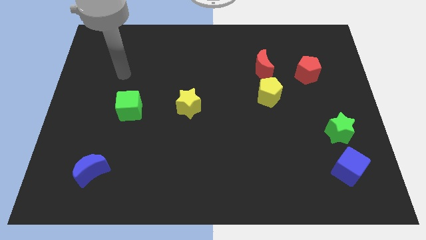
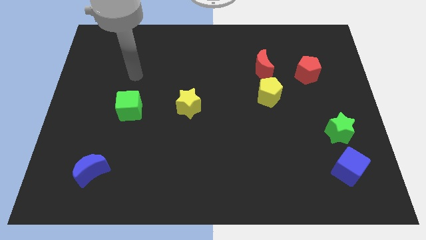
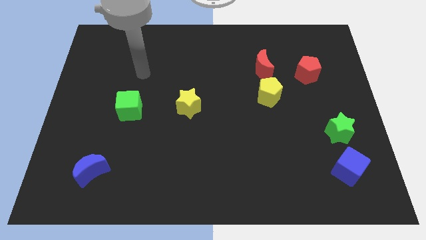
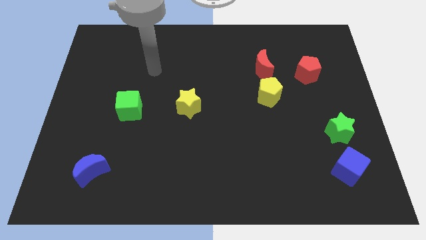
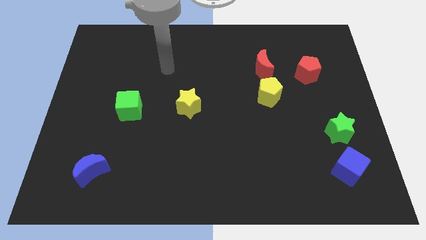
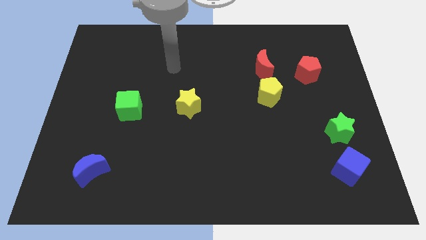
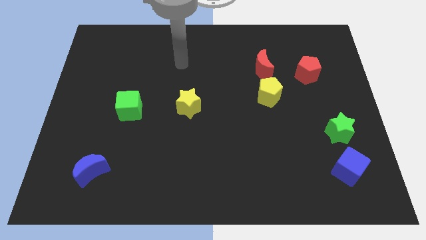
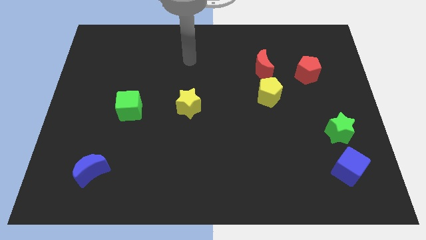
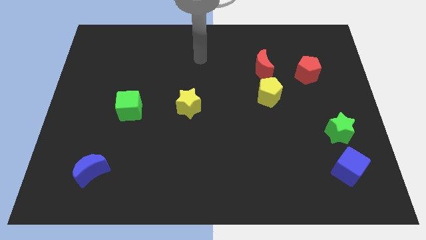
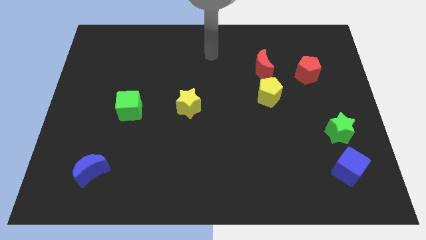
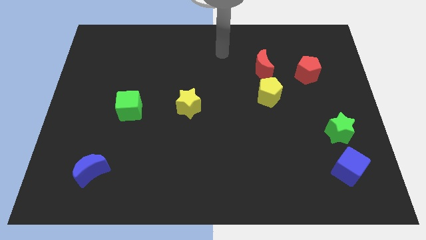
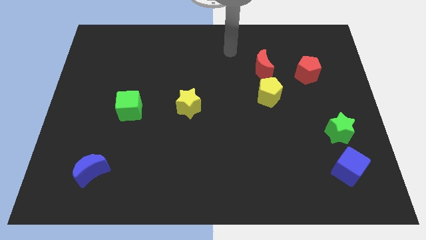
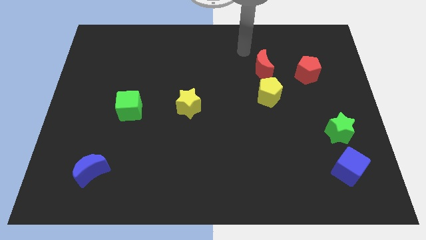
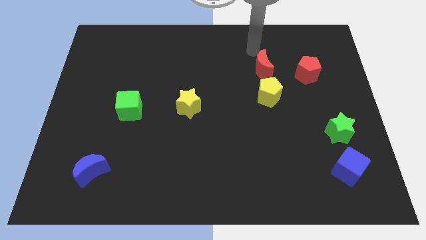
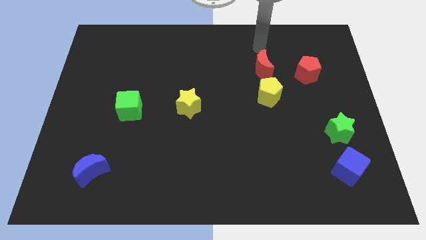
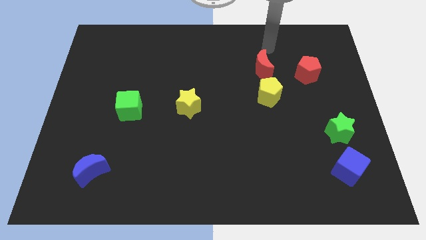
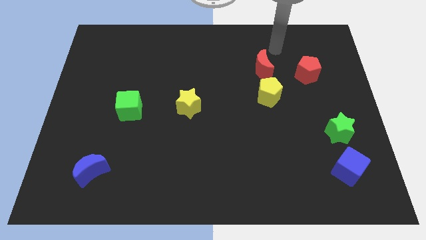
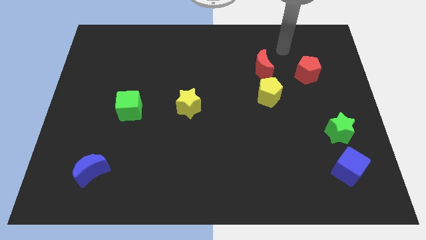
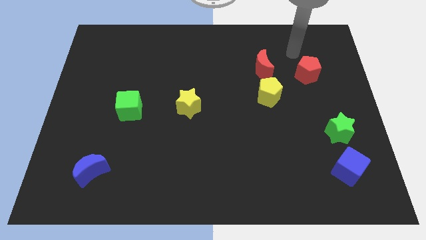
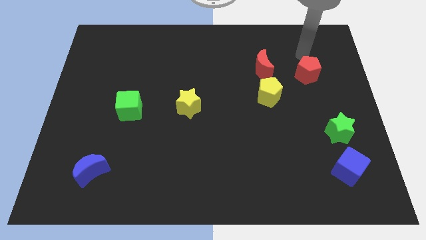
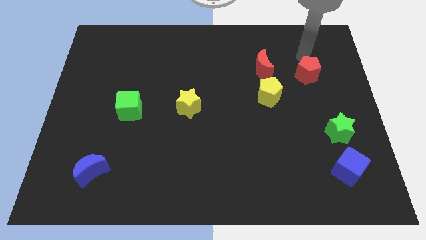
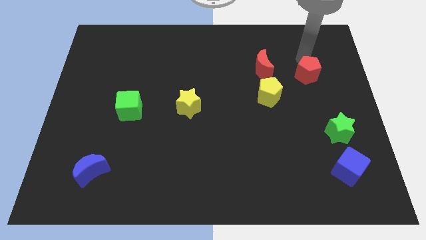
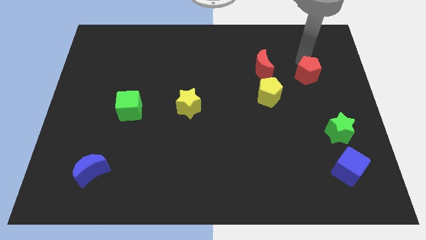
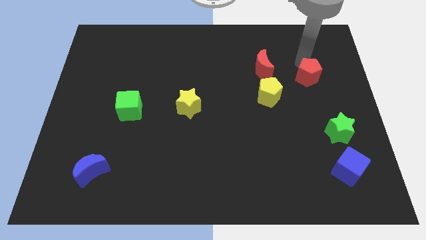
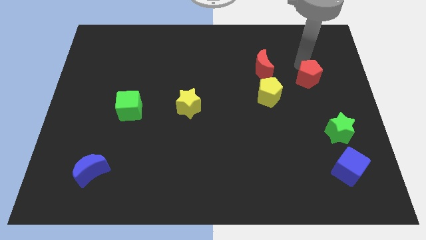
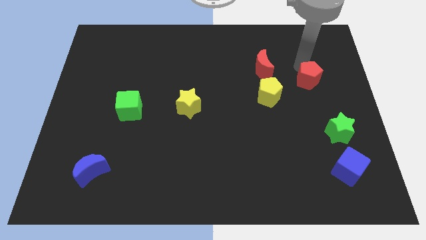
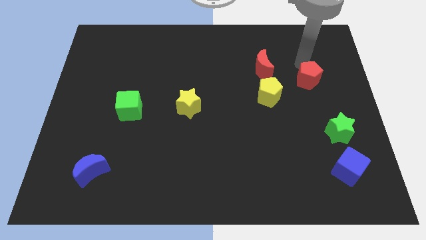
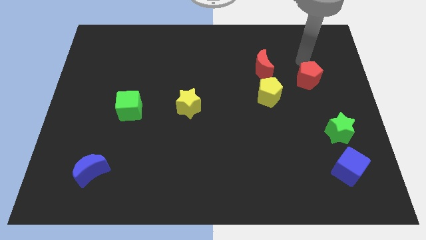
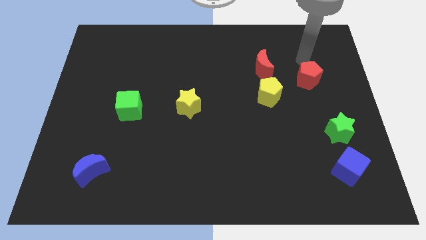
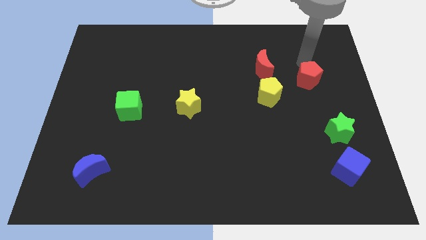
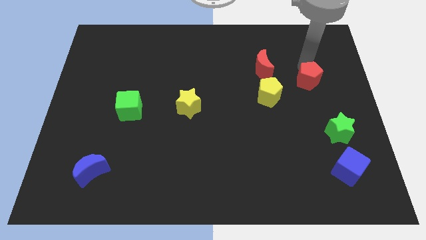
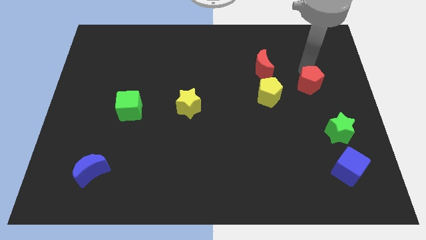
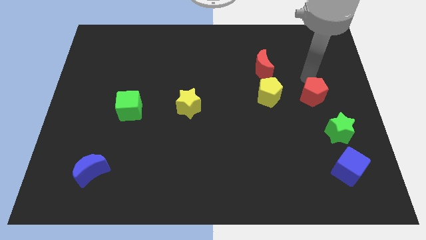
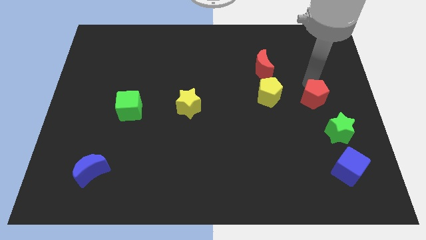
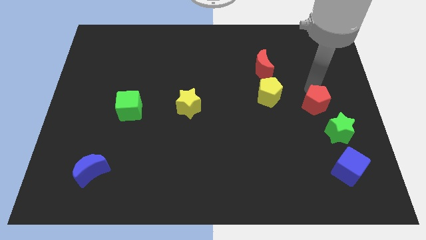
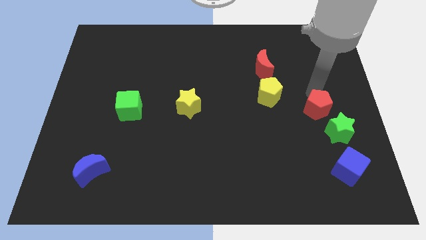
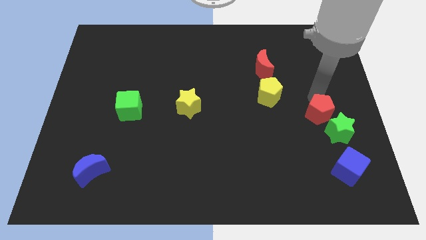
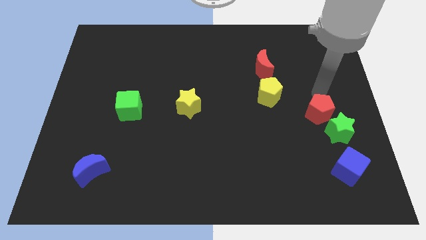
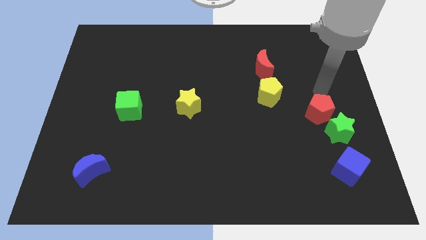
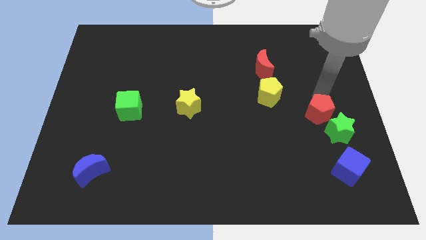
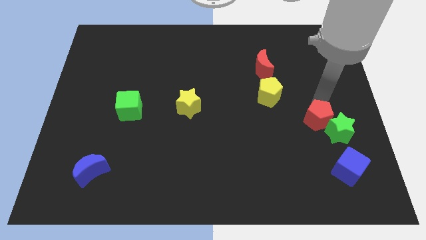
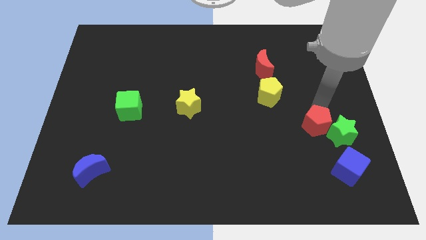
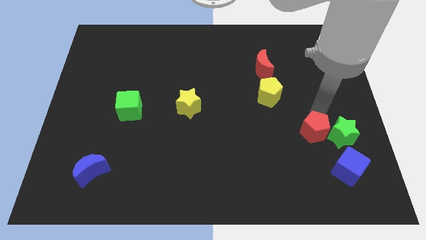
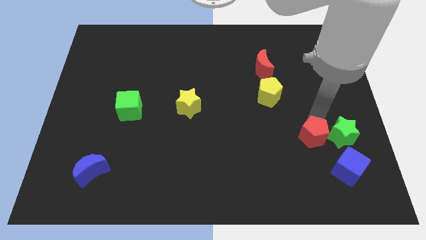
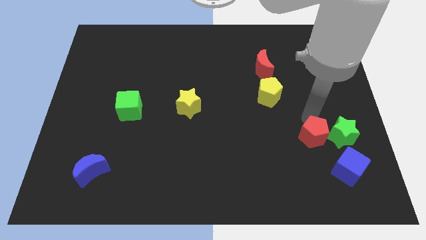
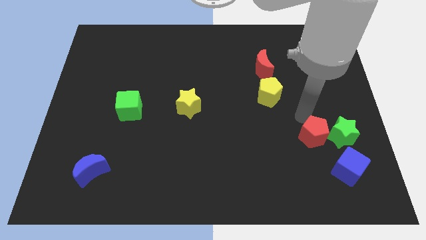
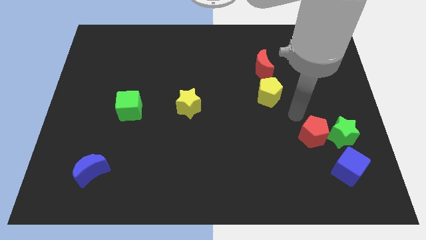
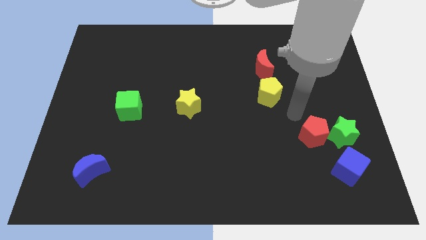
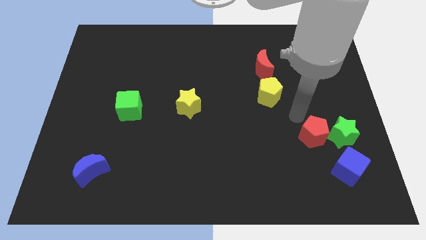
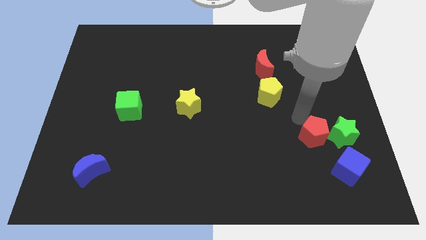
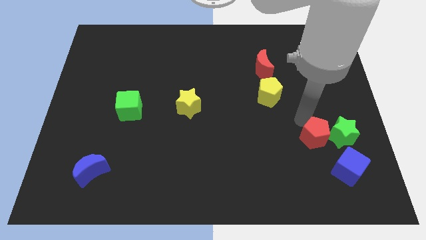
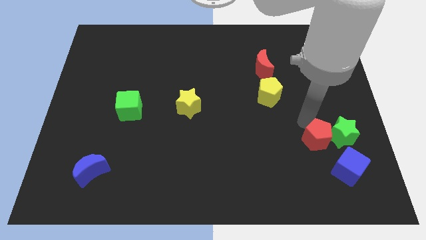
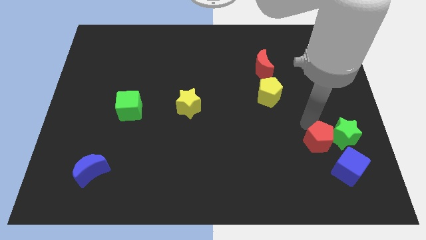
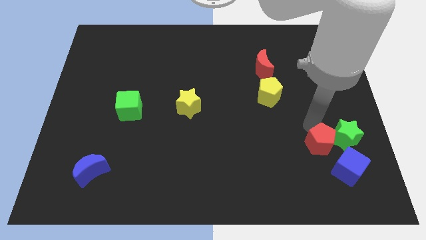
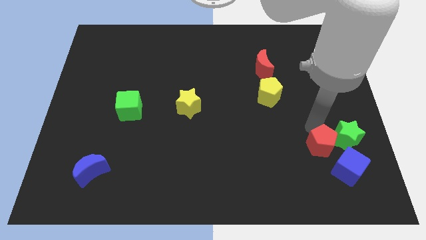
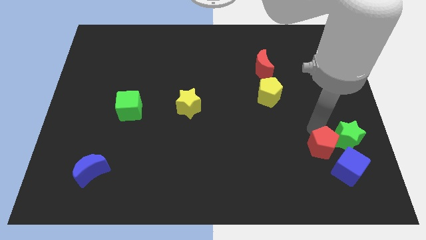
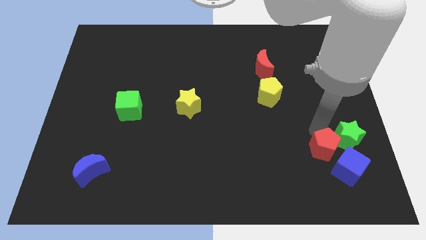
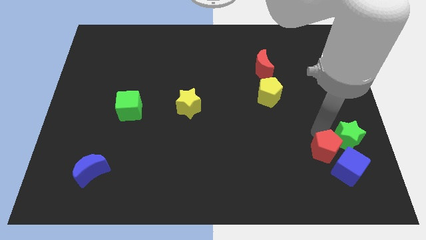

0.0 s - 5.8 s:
push the red pentagon close to the blue cube

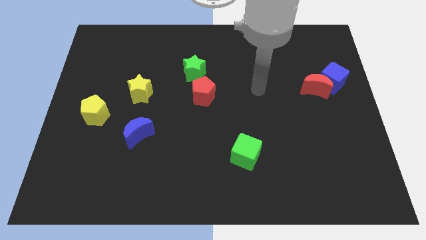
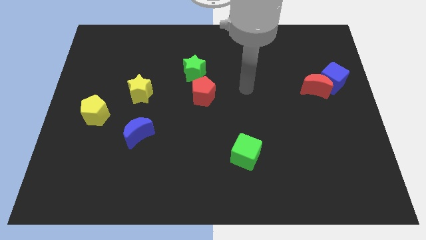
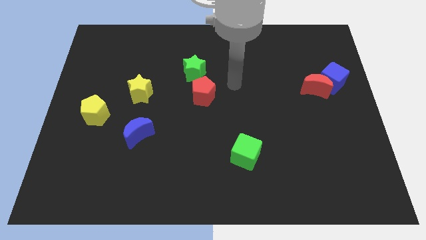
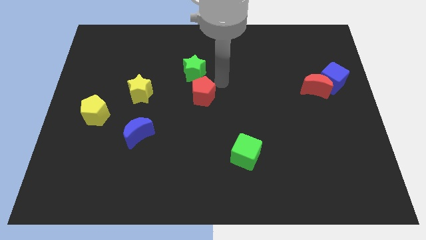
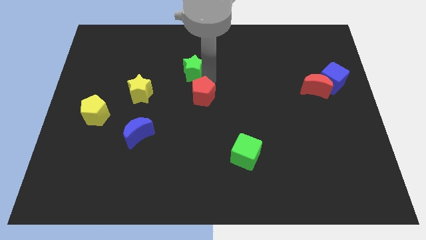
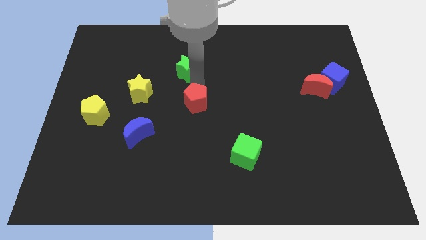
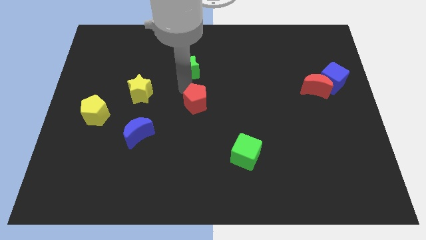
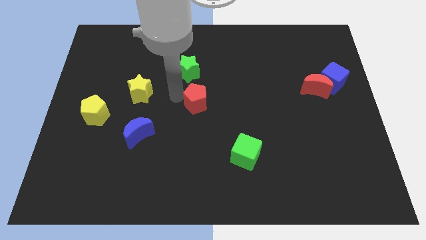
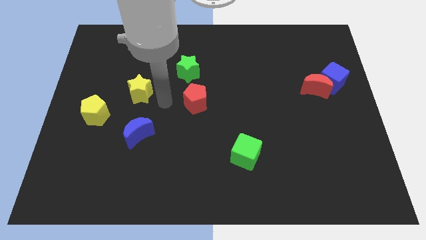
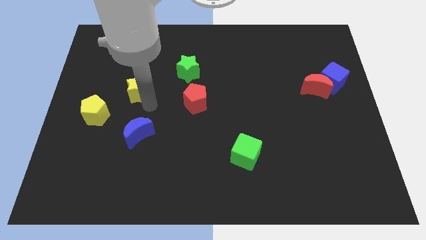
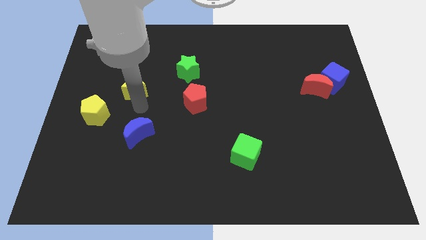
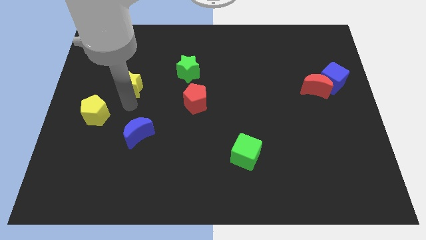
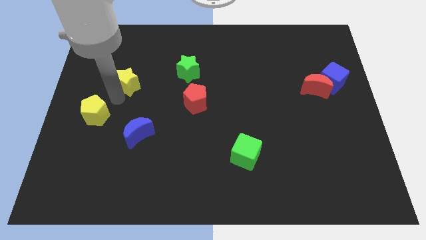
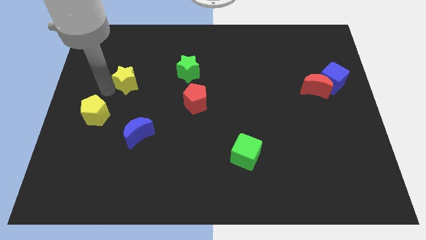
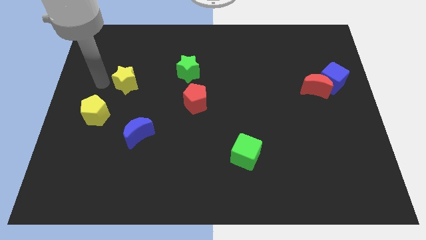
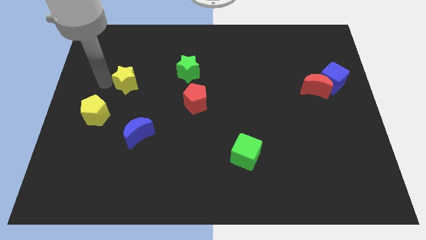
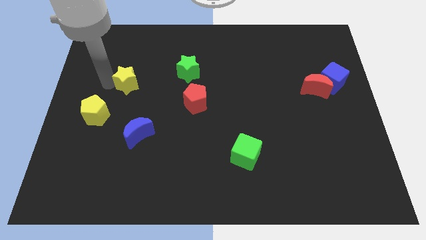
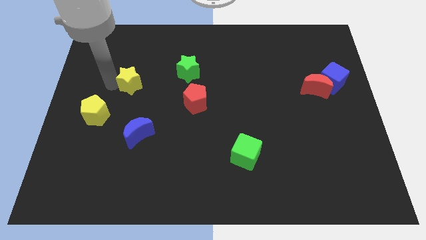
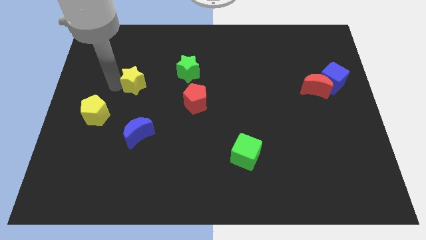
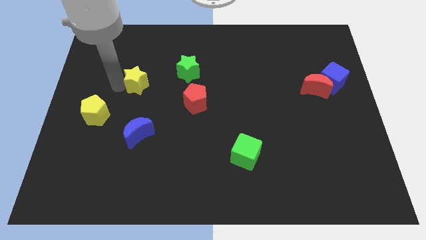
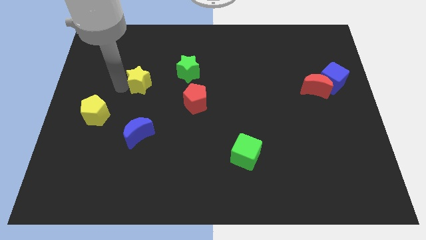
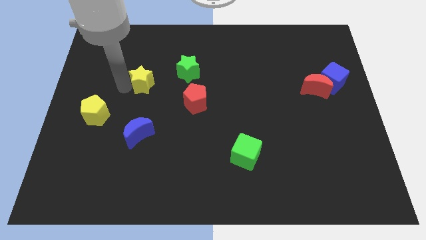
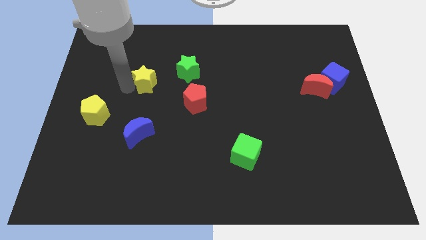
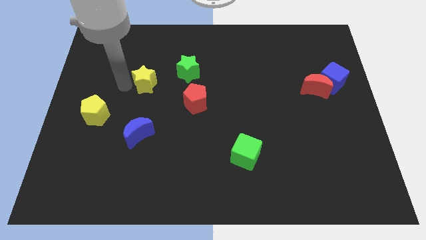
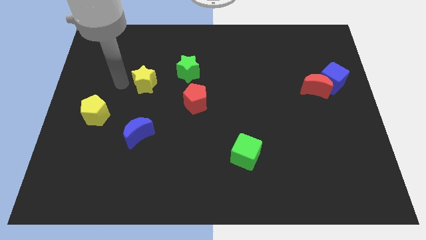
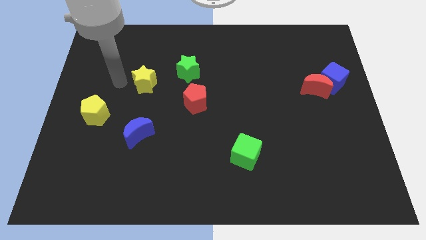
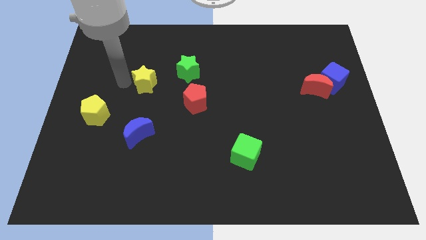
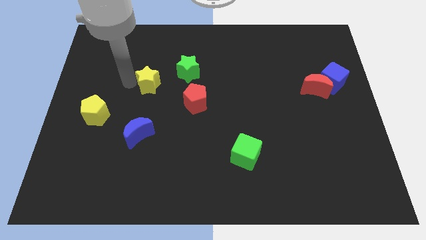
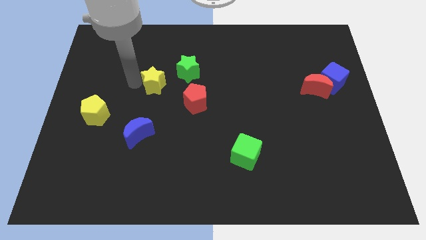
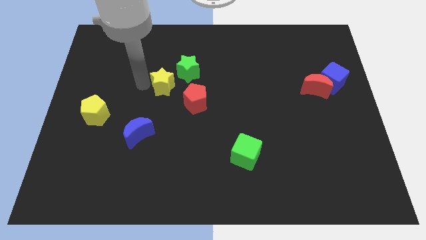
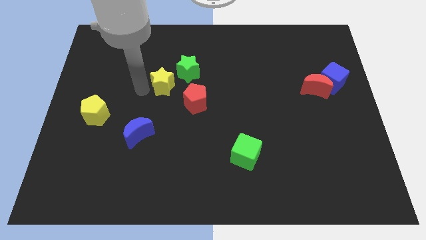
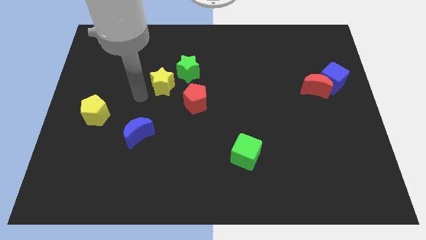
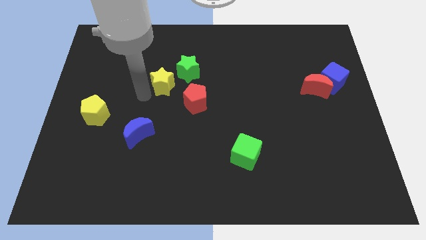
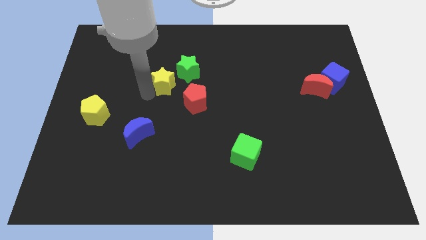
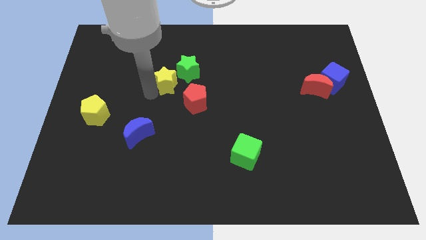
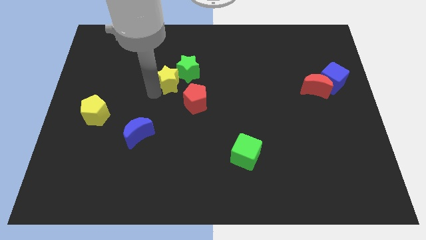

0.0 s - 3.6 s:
put the yellow star next to the green star
